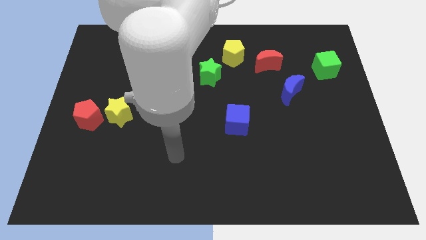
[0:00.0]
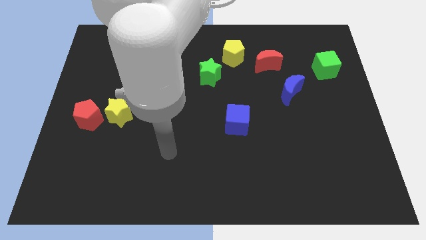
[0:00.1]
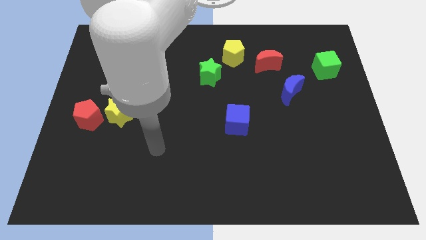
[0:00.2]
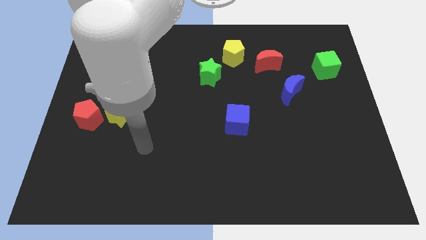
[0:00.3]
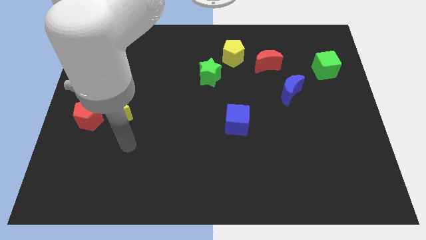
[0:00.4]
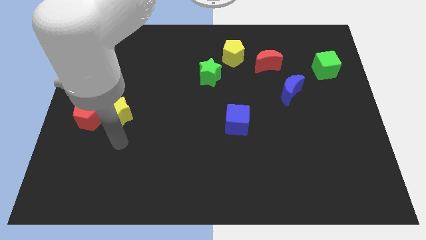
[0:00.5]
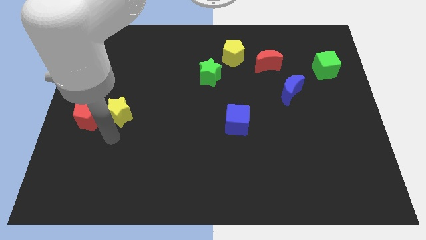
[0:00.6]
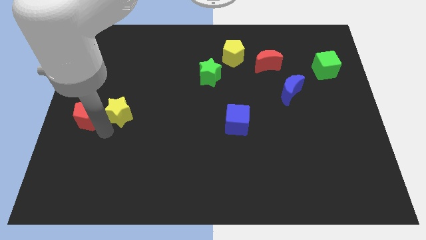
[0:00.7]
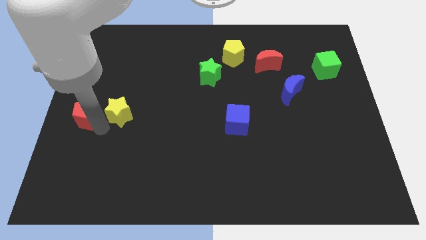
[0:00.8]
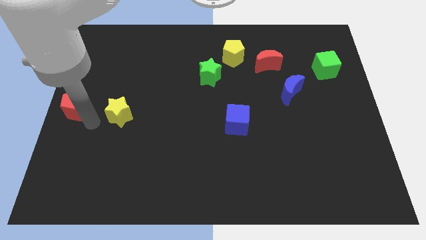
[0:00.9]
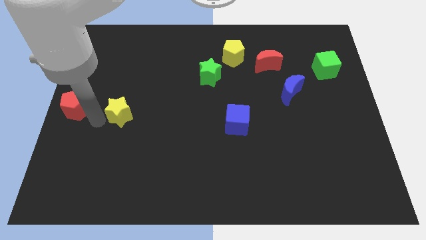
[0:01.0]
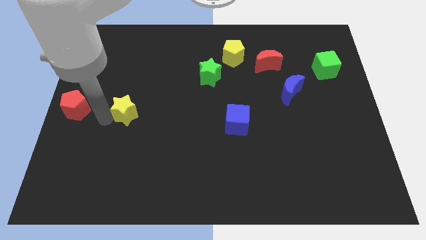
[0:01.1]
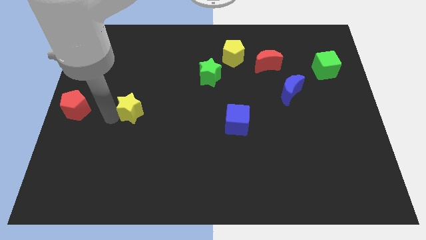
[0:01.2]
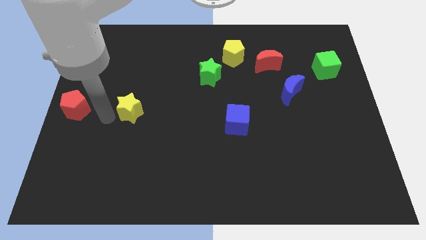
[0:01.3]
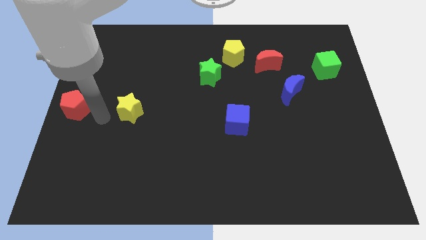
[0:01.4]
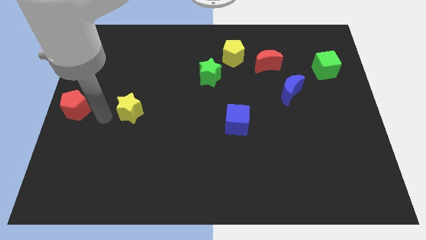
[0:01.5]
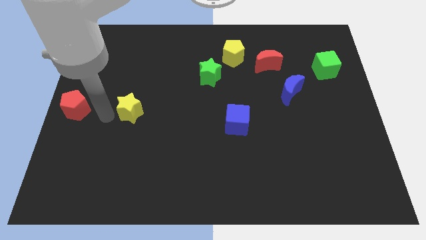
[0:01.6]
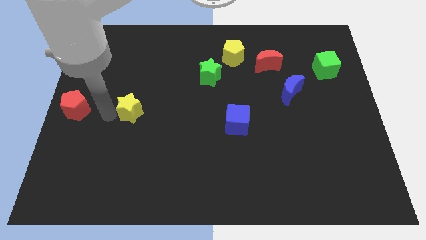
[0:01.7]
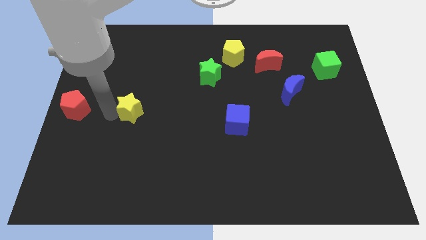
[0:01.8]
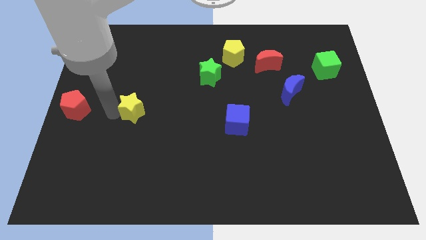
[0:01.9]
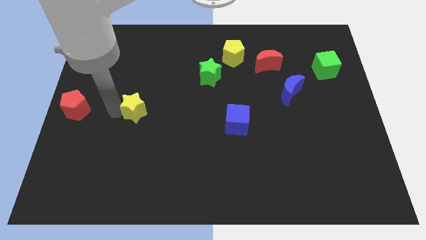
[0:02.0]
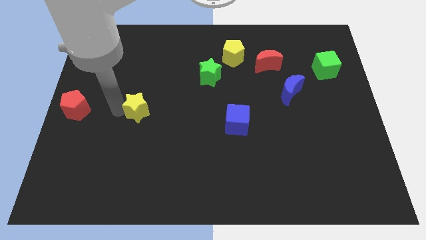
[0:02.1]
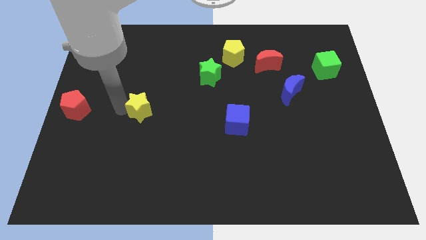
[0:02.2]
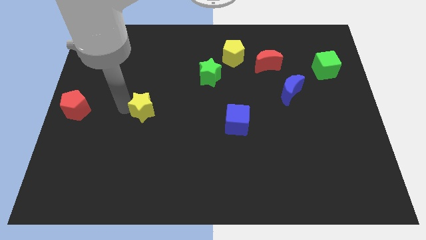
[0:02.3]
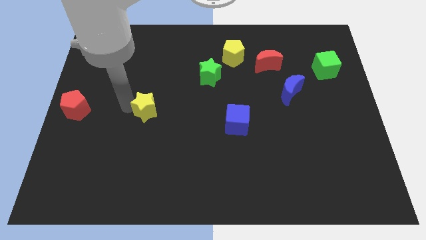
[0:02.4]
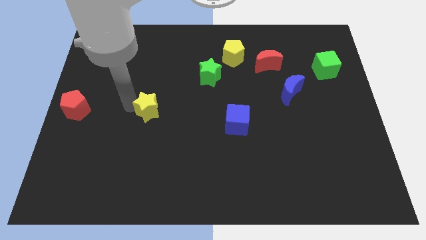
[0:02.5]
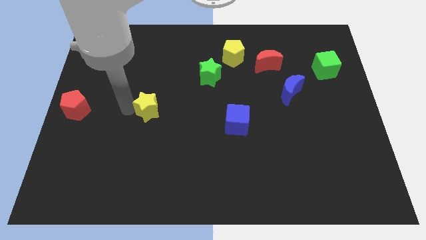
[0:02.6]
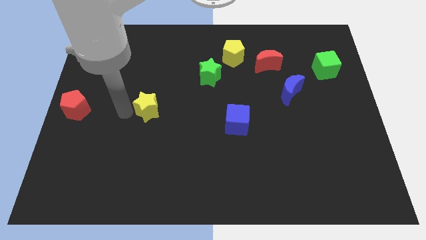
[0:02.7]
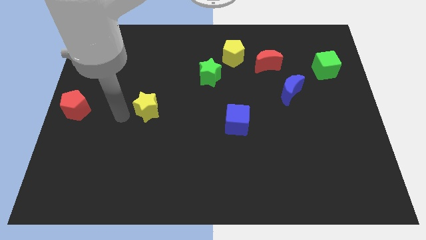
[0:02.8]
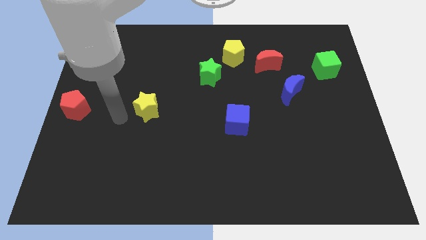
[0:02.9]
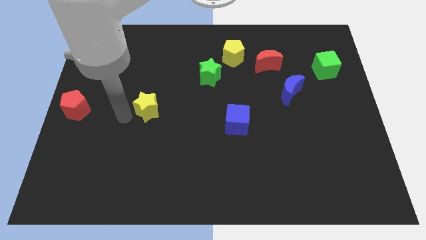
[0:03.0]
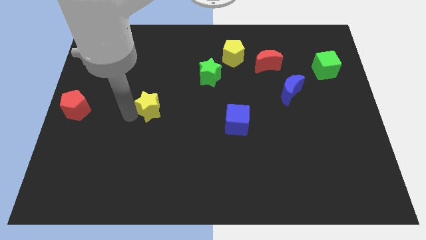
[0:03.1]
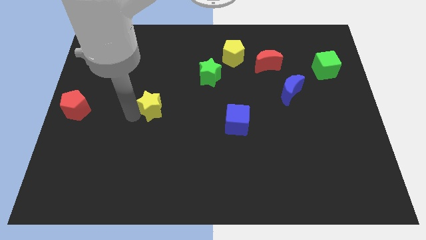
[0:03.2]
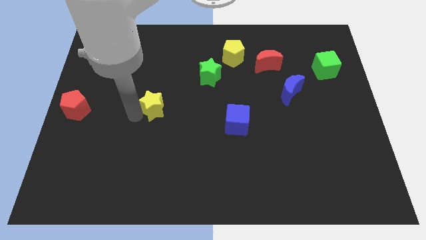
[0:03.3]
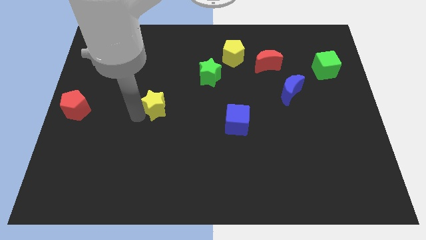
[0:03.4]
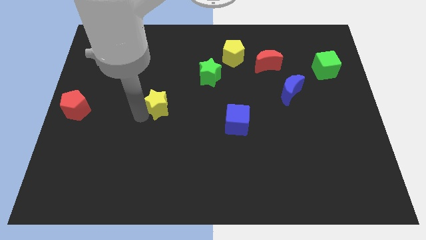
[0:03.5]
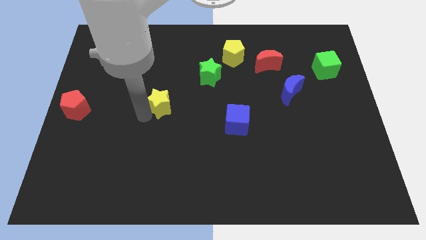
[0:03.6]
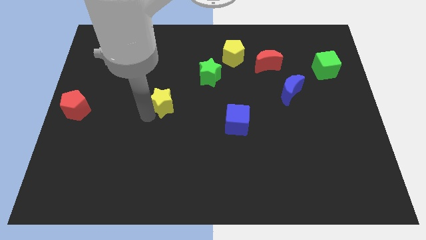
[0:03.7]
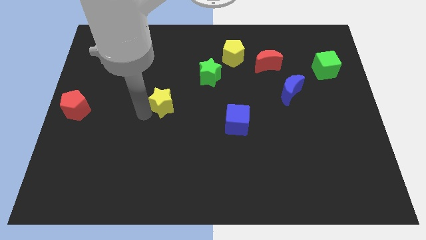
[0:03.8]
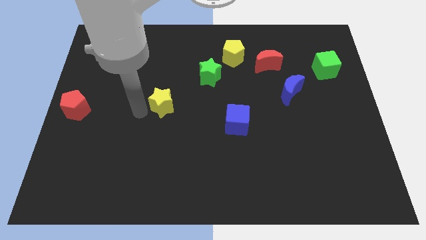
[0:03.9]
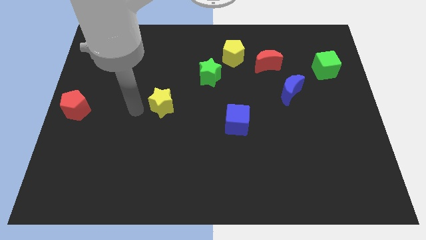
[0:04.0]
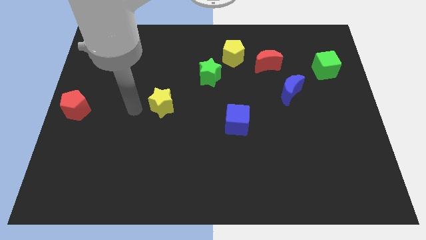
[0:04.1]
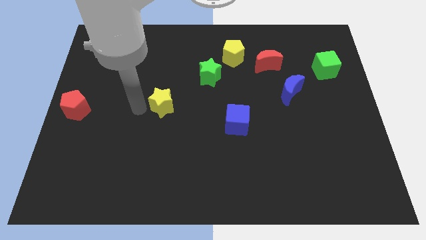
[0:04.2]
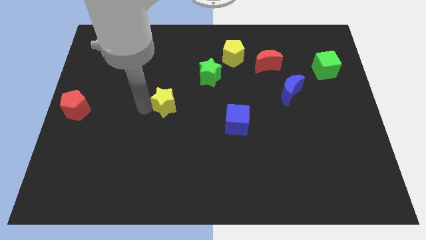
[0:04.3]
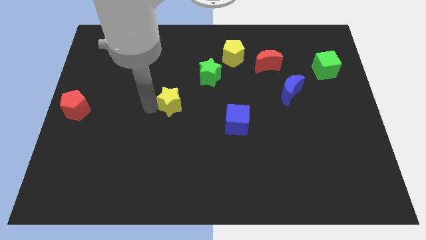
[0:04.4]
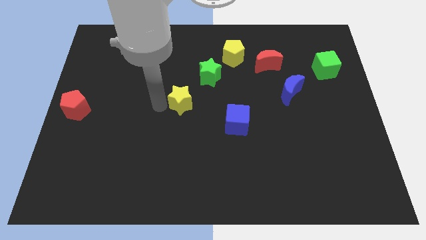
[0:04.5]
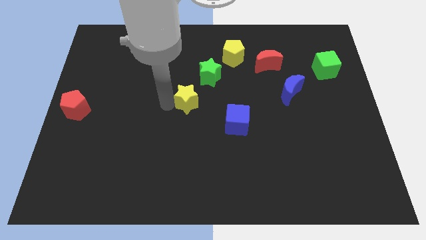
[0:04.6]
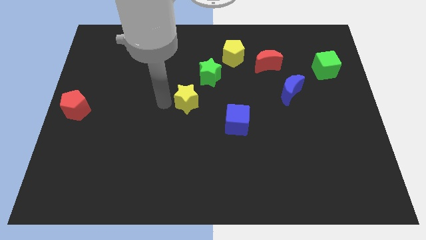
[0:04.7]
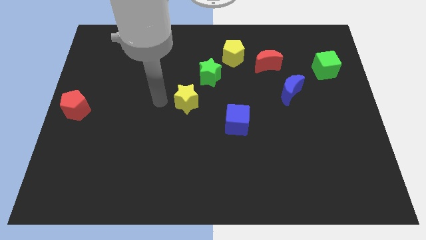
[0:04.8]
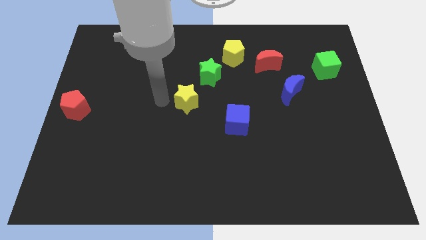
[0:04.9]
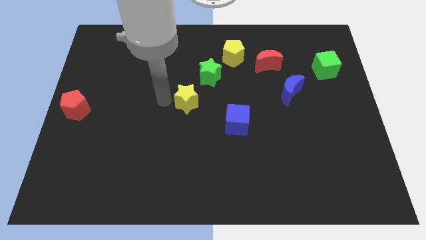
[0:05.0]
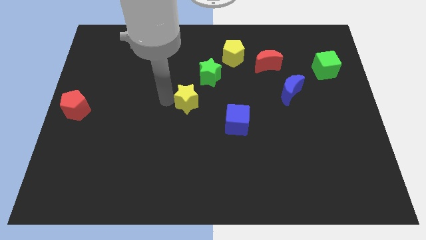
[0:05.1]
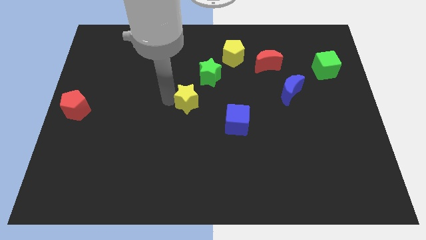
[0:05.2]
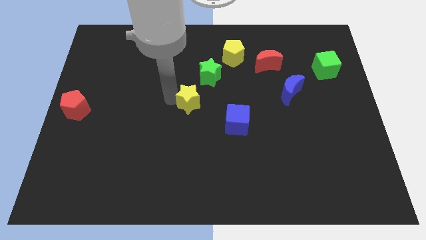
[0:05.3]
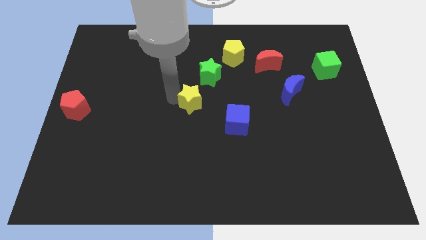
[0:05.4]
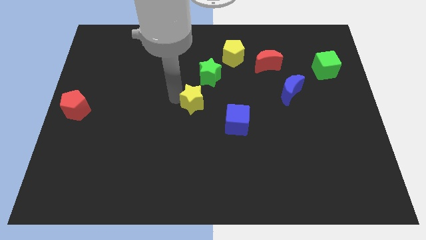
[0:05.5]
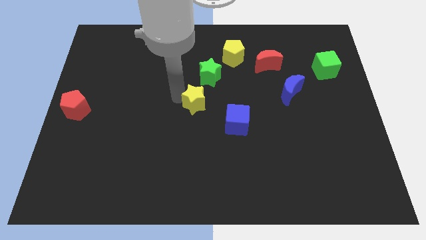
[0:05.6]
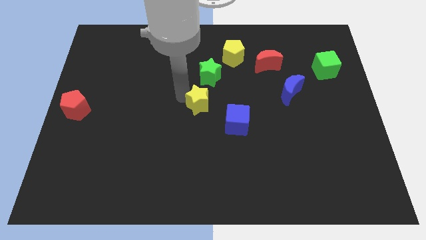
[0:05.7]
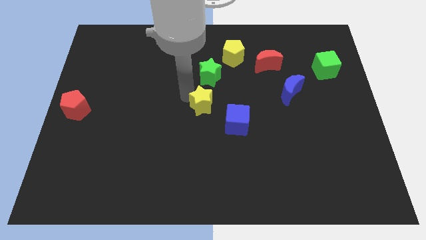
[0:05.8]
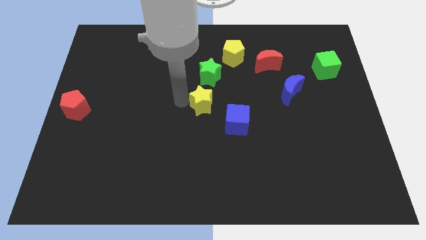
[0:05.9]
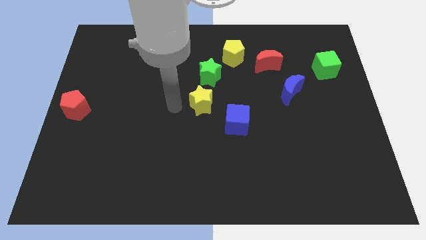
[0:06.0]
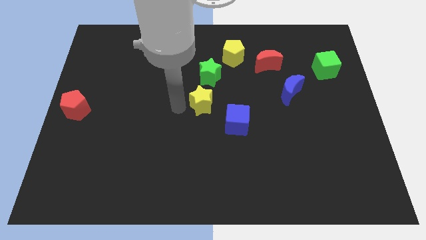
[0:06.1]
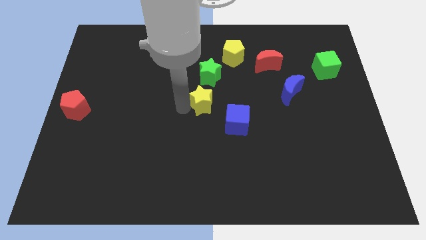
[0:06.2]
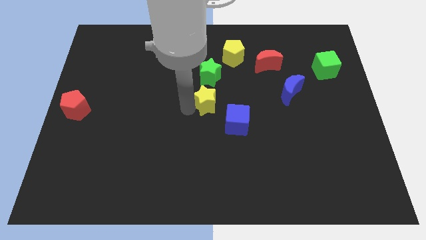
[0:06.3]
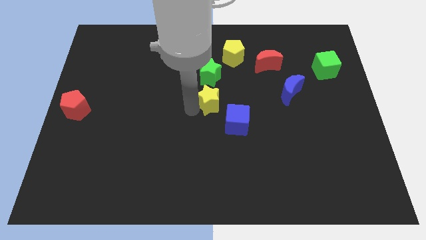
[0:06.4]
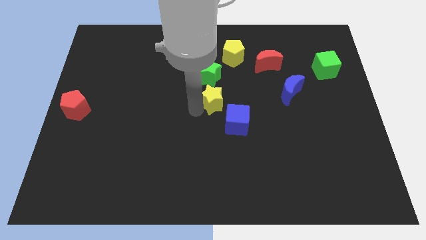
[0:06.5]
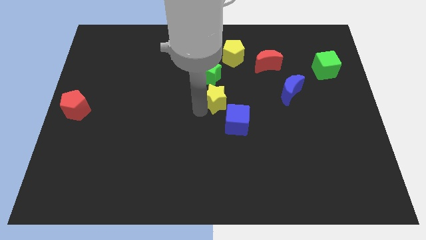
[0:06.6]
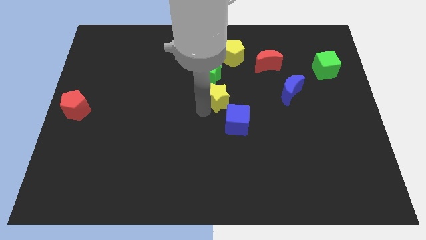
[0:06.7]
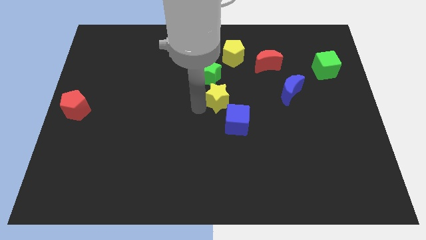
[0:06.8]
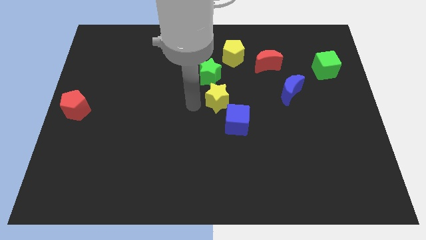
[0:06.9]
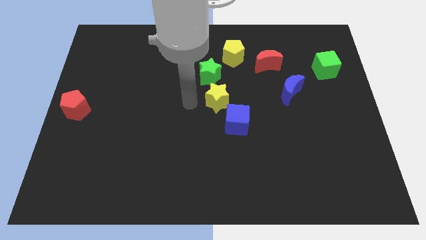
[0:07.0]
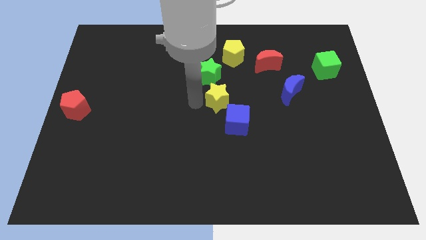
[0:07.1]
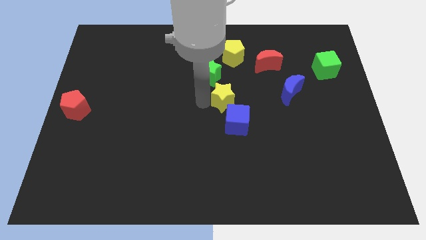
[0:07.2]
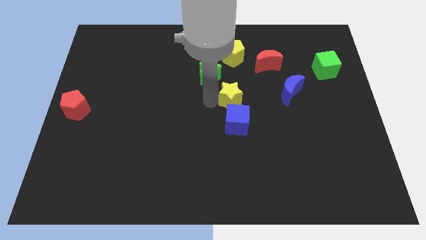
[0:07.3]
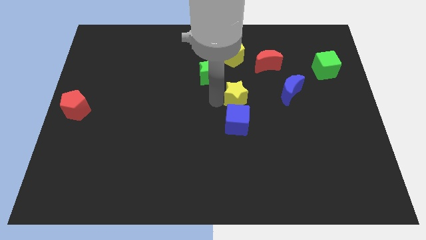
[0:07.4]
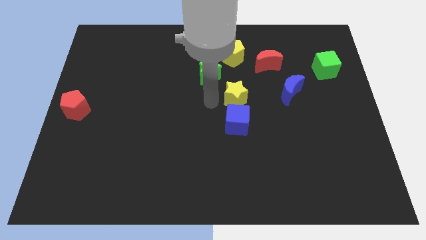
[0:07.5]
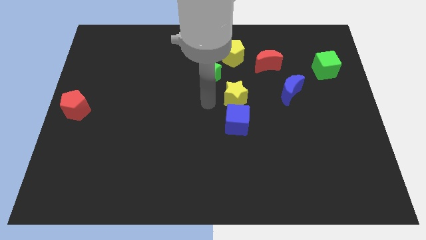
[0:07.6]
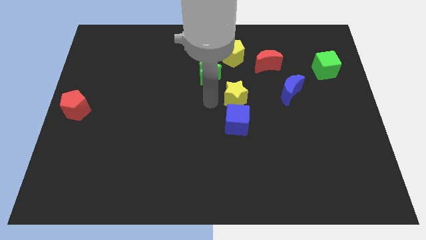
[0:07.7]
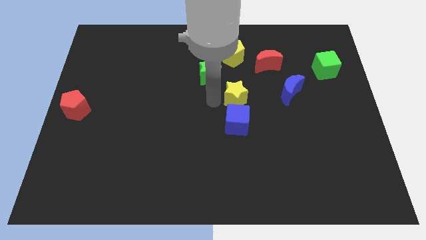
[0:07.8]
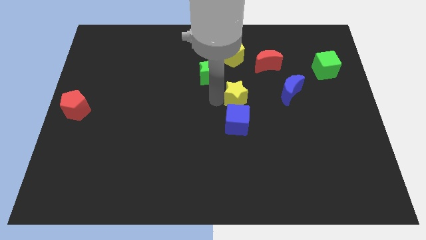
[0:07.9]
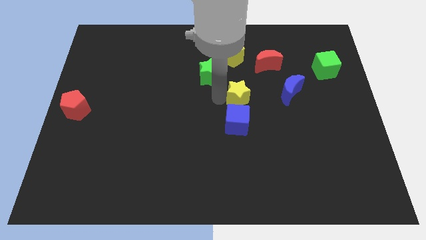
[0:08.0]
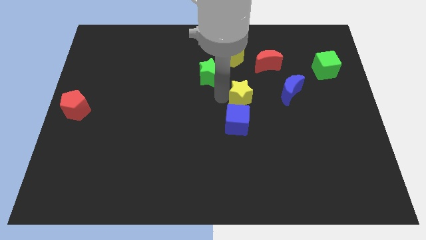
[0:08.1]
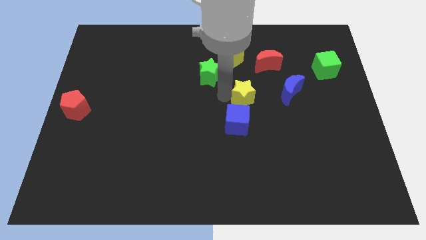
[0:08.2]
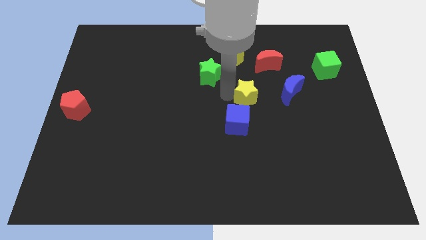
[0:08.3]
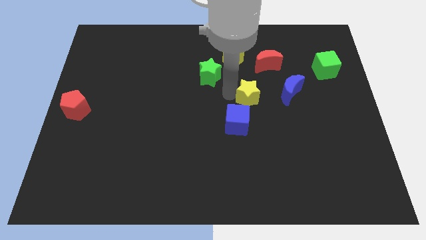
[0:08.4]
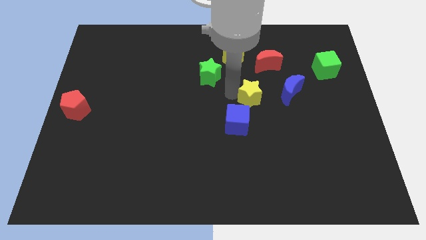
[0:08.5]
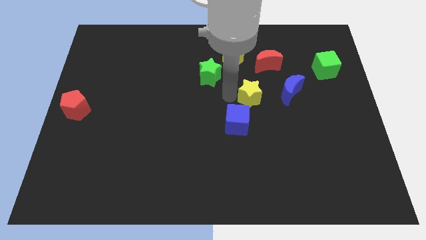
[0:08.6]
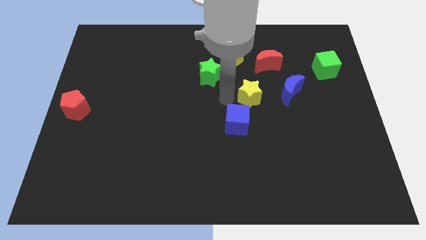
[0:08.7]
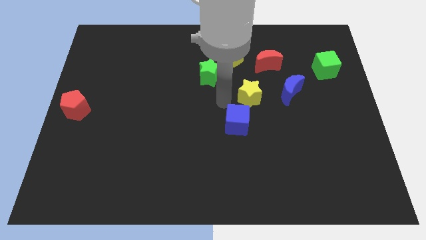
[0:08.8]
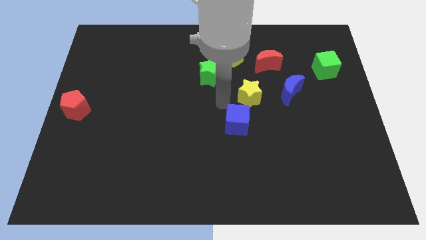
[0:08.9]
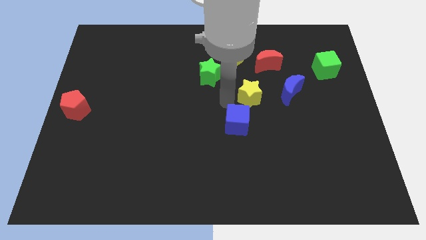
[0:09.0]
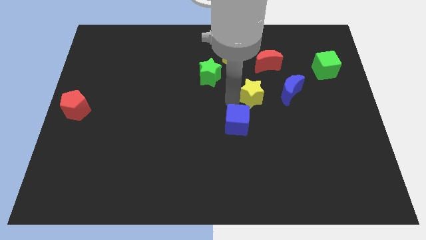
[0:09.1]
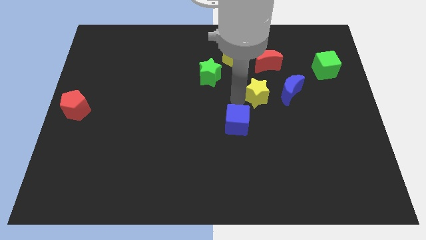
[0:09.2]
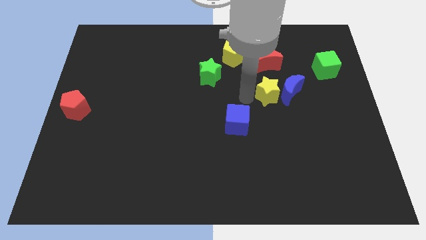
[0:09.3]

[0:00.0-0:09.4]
slide the yellow star towards the blue moon
